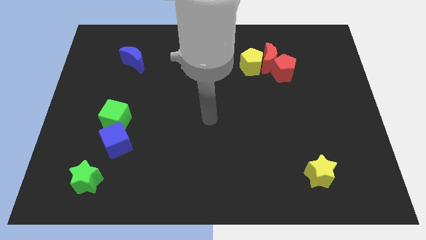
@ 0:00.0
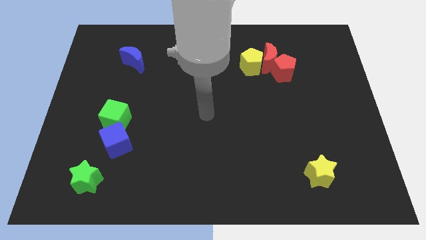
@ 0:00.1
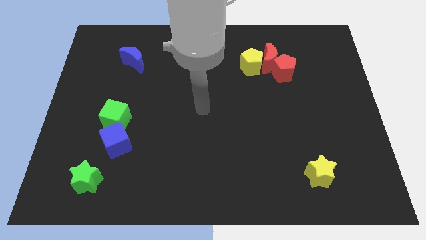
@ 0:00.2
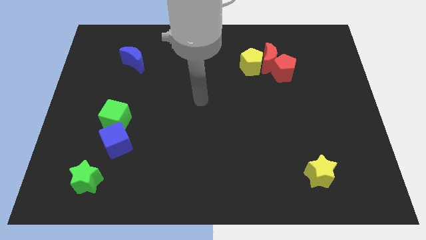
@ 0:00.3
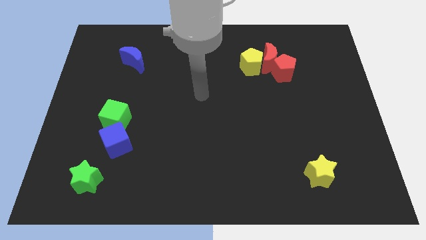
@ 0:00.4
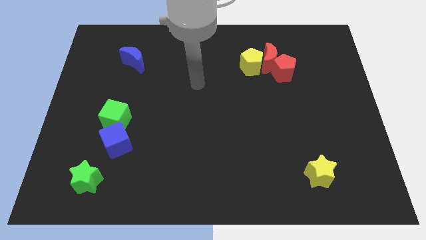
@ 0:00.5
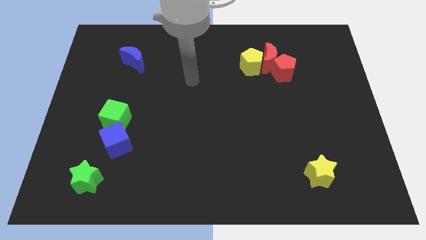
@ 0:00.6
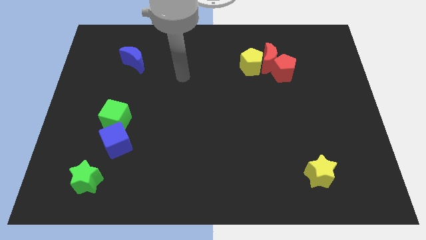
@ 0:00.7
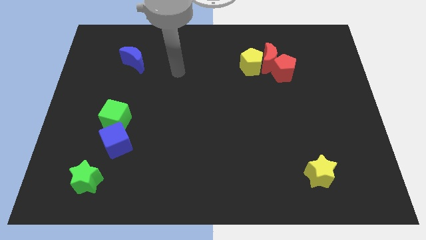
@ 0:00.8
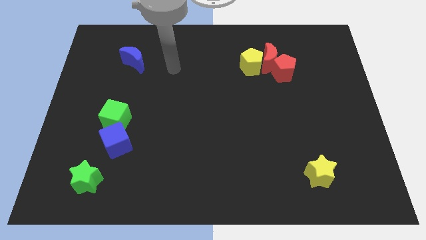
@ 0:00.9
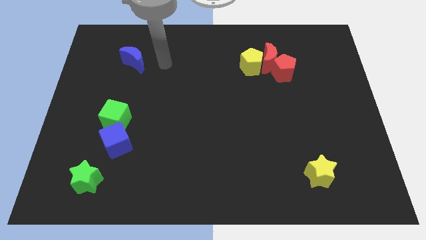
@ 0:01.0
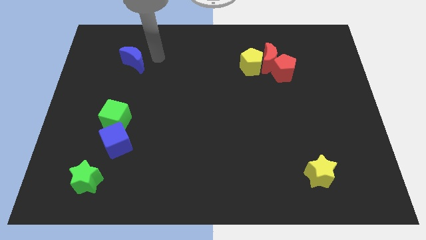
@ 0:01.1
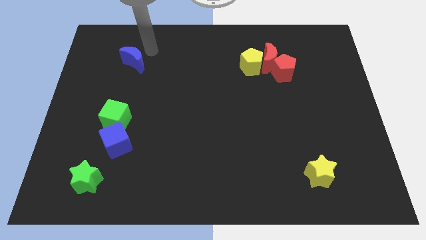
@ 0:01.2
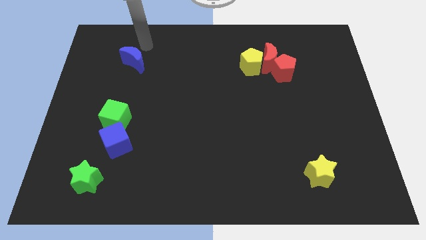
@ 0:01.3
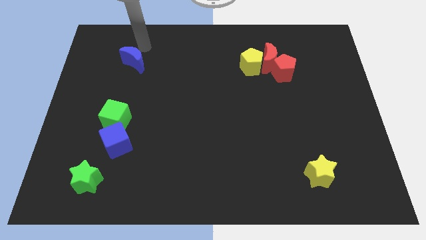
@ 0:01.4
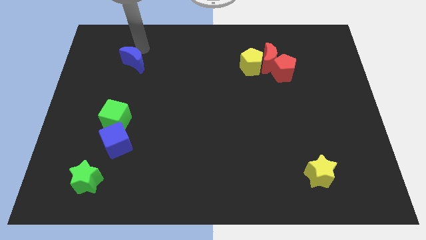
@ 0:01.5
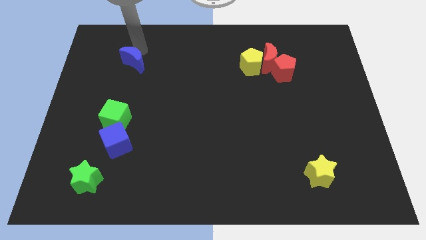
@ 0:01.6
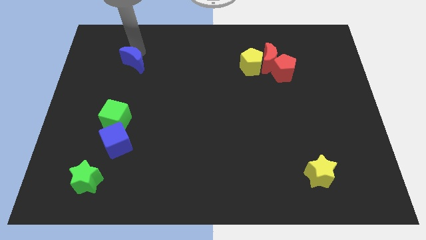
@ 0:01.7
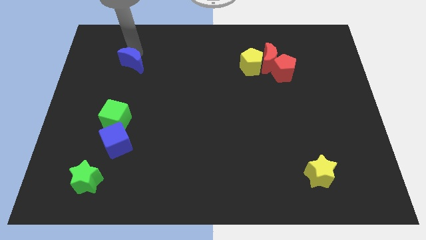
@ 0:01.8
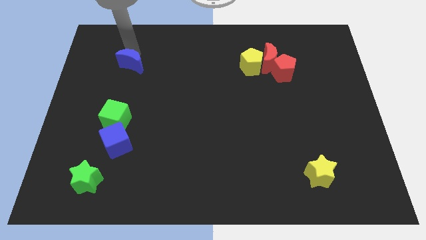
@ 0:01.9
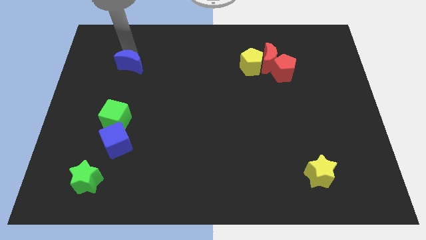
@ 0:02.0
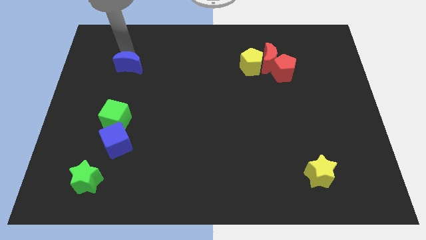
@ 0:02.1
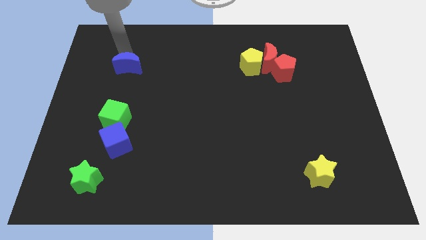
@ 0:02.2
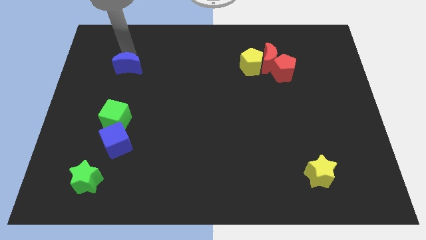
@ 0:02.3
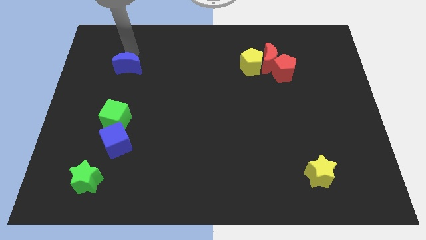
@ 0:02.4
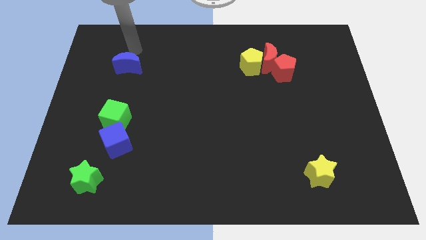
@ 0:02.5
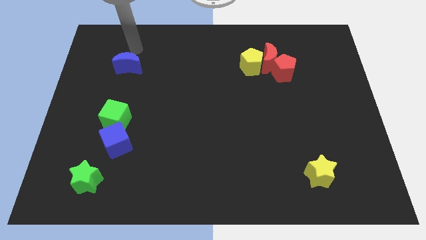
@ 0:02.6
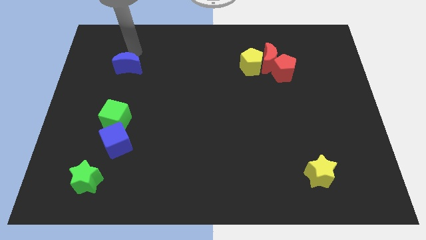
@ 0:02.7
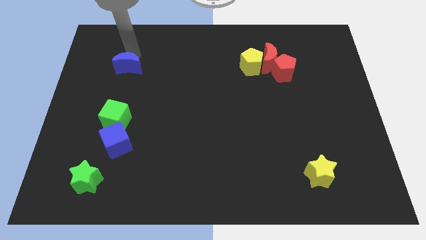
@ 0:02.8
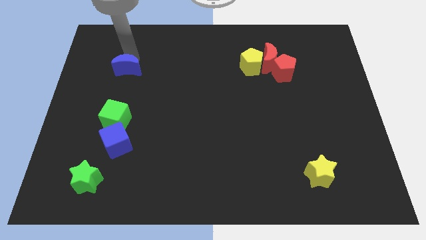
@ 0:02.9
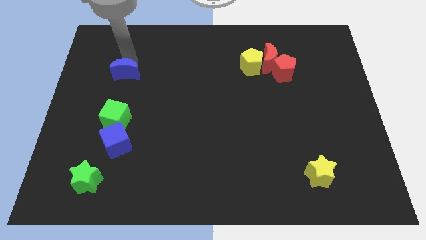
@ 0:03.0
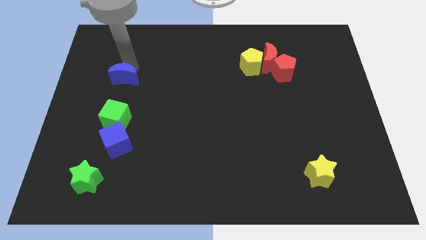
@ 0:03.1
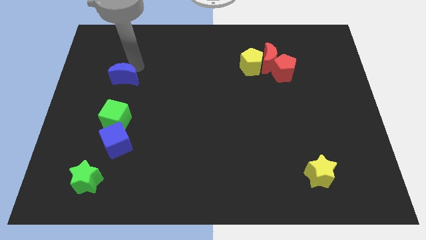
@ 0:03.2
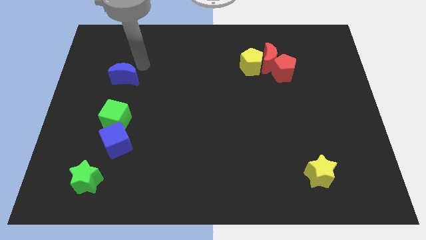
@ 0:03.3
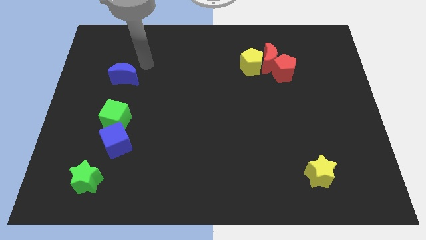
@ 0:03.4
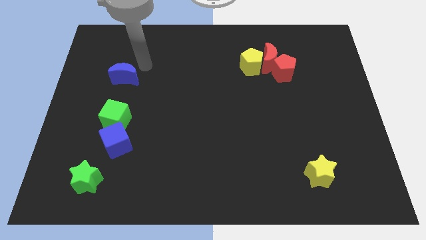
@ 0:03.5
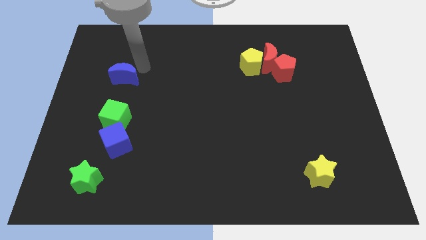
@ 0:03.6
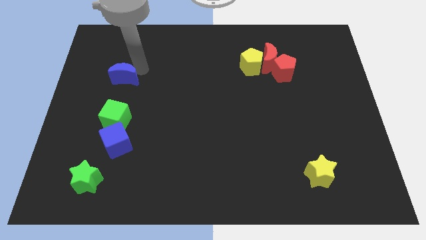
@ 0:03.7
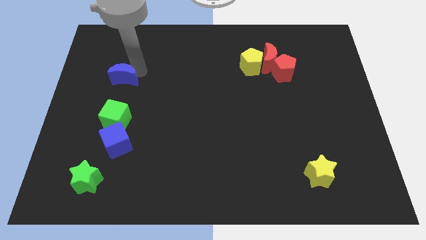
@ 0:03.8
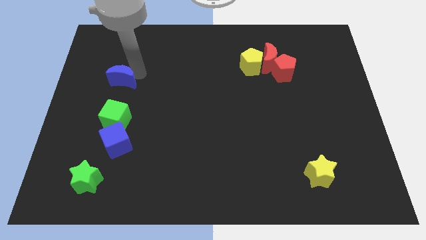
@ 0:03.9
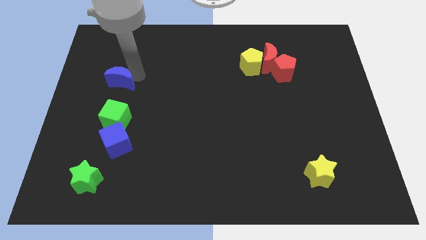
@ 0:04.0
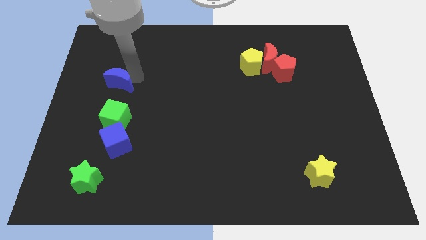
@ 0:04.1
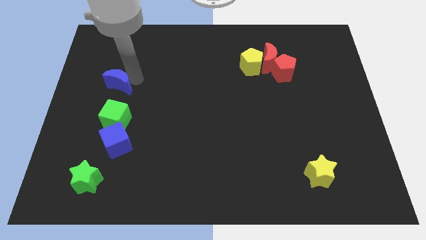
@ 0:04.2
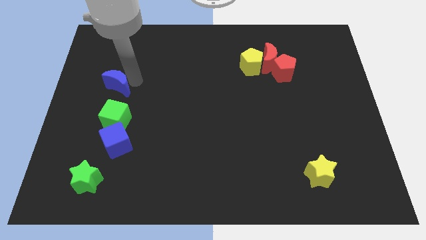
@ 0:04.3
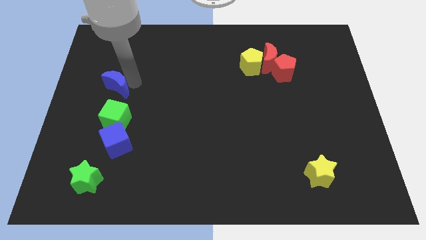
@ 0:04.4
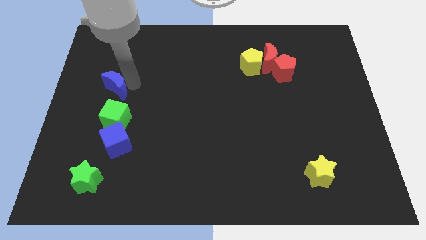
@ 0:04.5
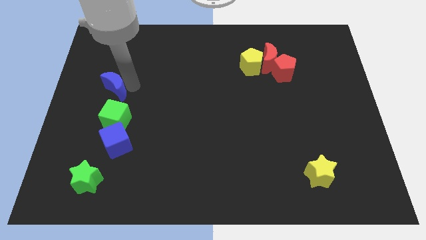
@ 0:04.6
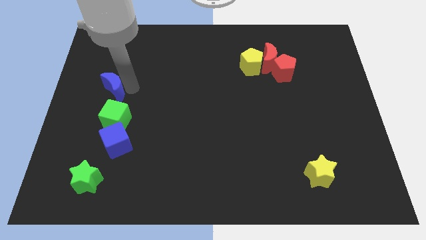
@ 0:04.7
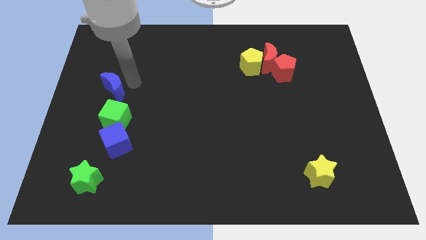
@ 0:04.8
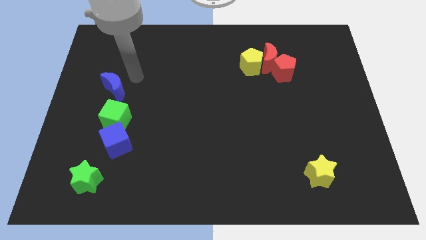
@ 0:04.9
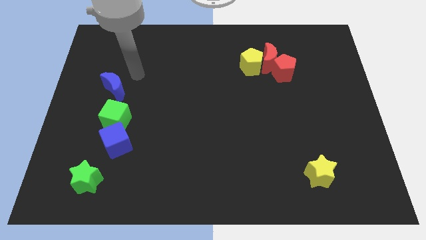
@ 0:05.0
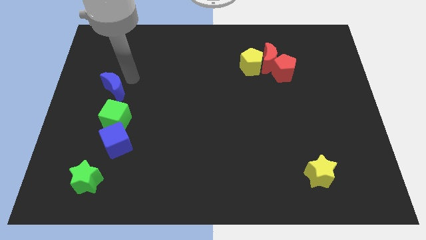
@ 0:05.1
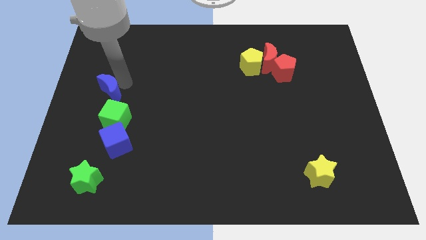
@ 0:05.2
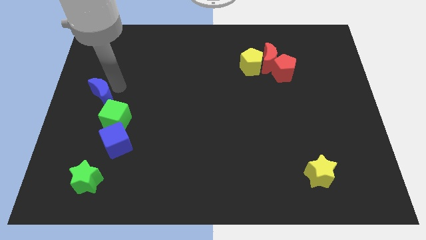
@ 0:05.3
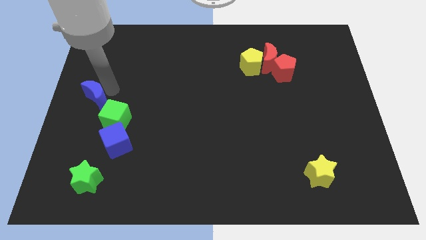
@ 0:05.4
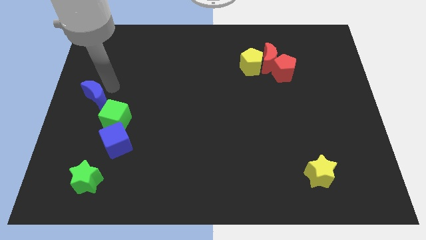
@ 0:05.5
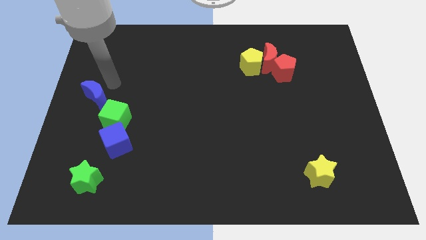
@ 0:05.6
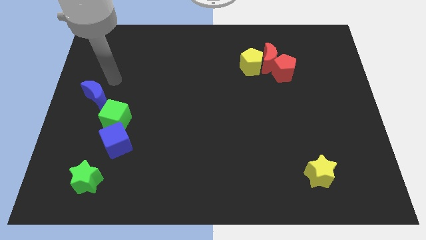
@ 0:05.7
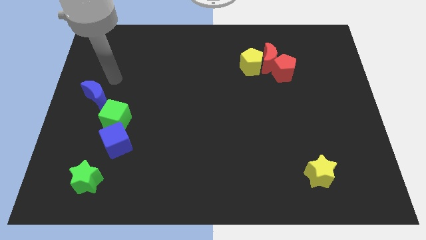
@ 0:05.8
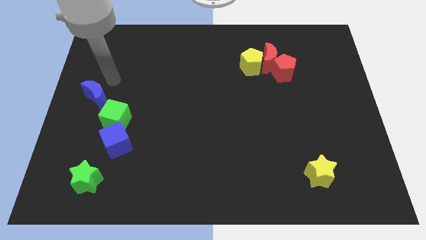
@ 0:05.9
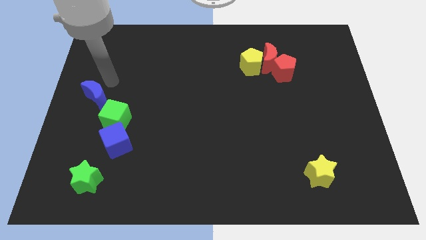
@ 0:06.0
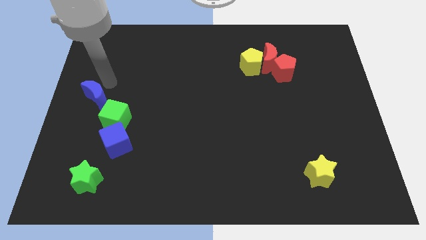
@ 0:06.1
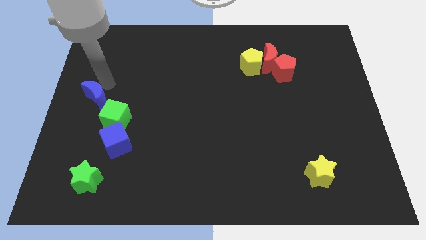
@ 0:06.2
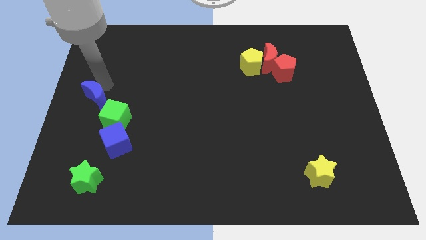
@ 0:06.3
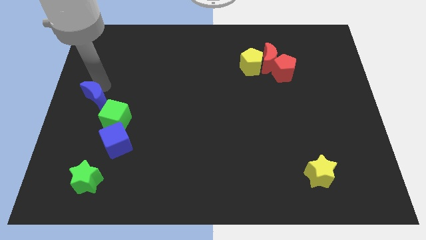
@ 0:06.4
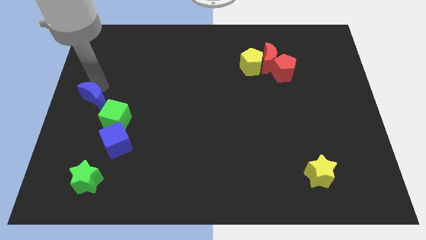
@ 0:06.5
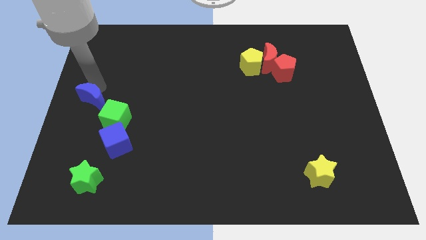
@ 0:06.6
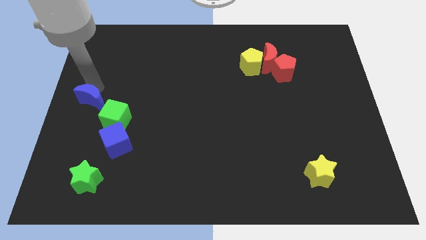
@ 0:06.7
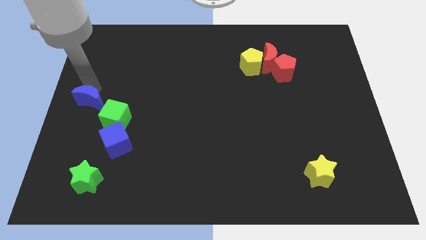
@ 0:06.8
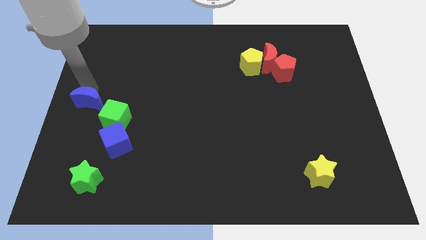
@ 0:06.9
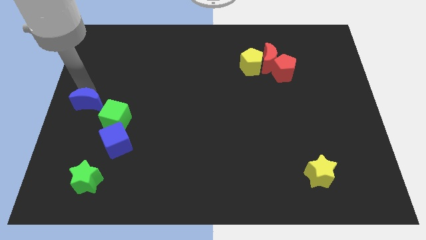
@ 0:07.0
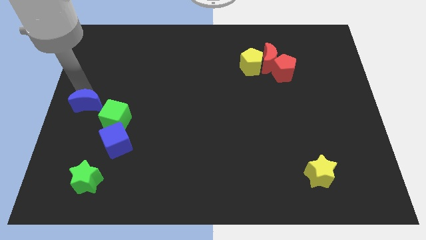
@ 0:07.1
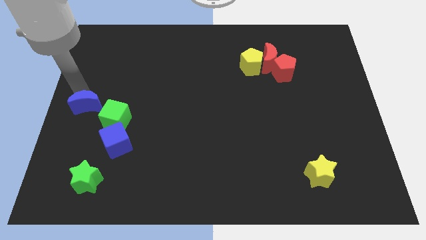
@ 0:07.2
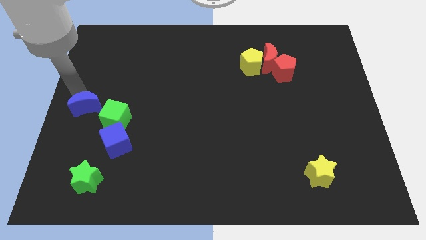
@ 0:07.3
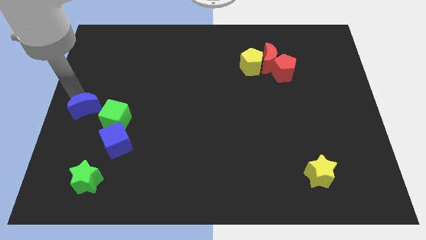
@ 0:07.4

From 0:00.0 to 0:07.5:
slide the blue moon to the top left of the blue cube
